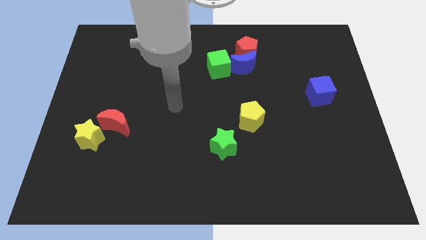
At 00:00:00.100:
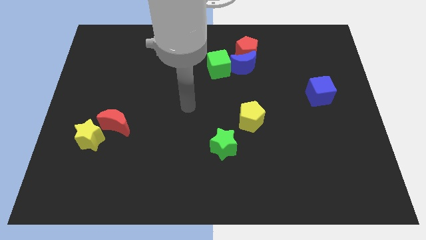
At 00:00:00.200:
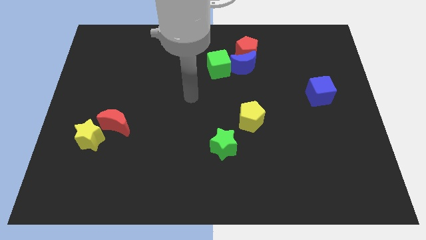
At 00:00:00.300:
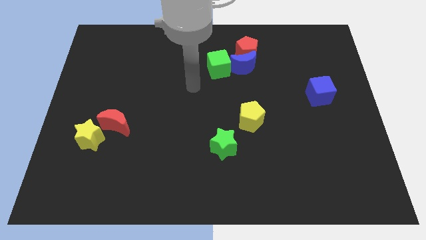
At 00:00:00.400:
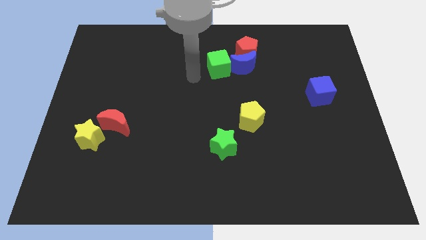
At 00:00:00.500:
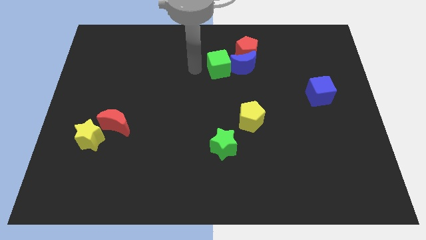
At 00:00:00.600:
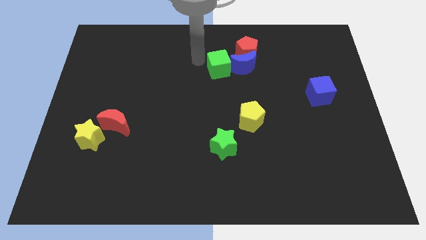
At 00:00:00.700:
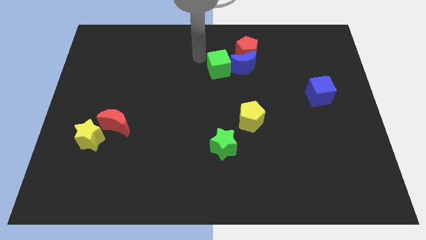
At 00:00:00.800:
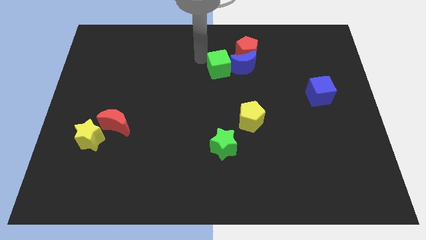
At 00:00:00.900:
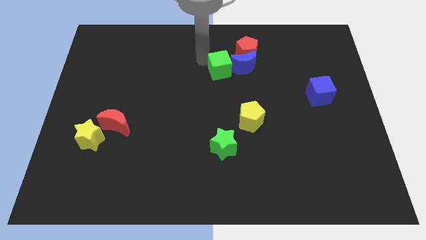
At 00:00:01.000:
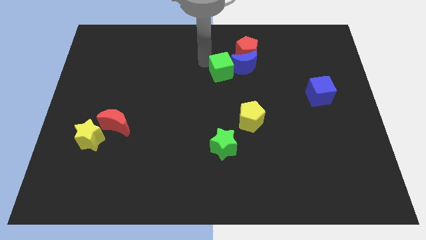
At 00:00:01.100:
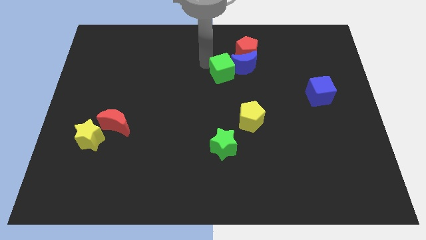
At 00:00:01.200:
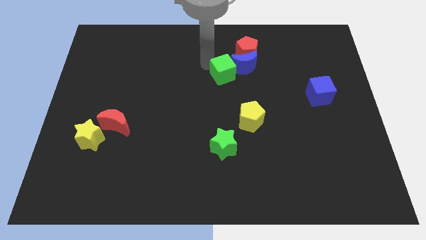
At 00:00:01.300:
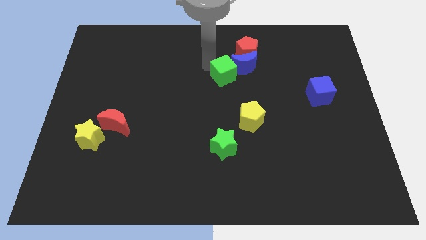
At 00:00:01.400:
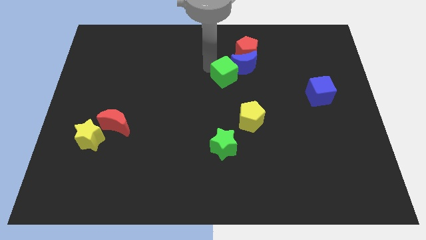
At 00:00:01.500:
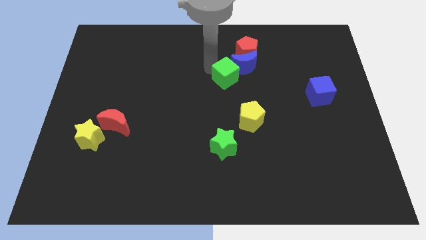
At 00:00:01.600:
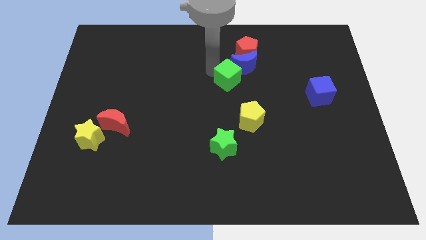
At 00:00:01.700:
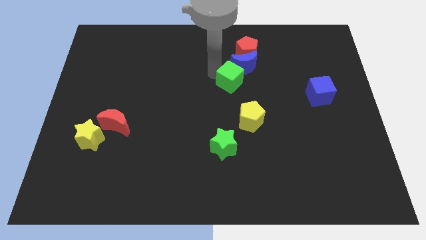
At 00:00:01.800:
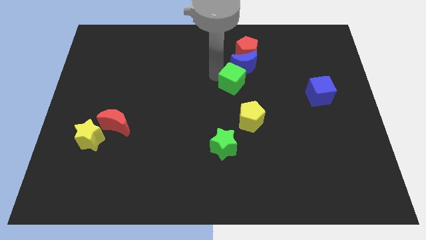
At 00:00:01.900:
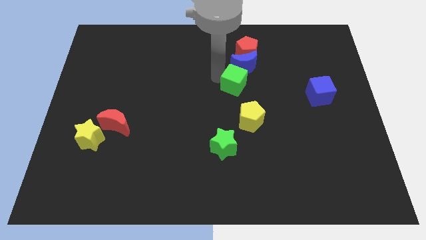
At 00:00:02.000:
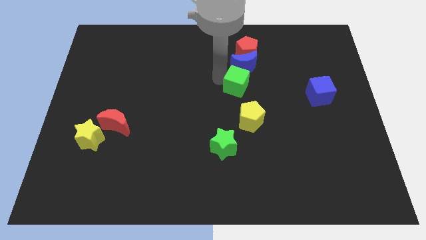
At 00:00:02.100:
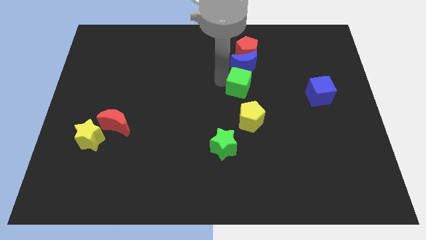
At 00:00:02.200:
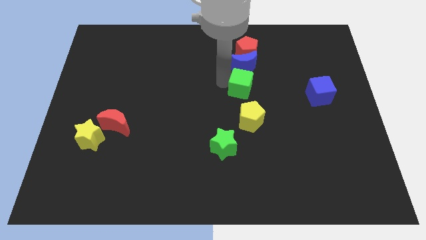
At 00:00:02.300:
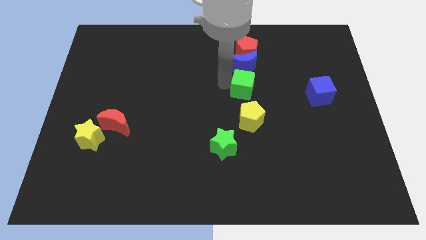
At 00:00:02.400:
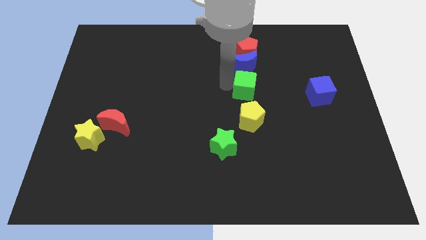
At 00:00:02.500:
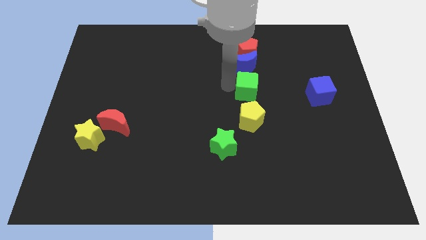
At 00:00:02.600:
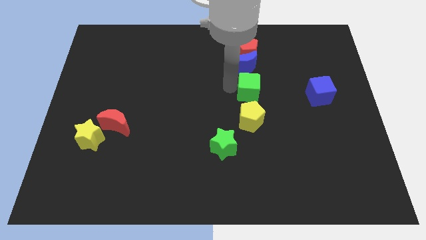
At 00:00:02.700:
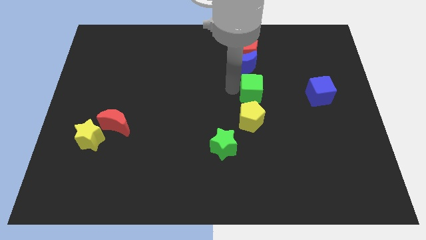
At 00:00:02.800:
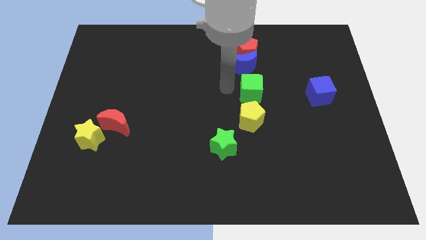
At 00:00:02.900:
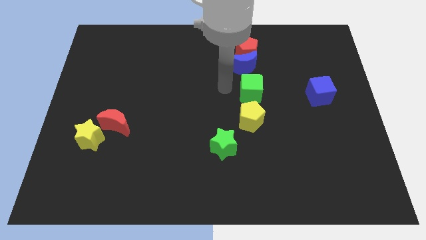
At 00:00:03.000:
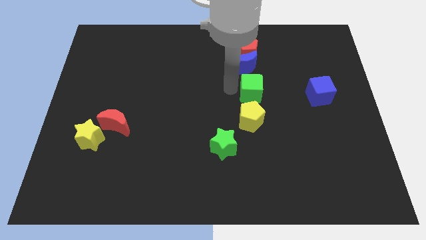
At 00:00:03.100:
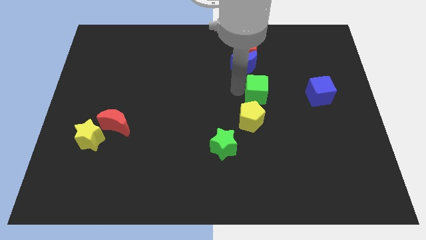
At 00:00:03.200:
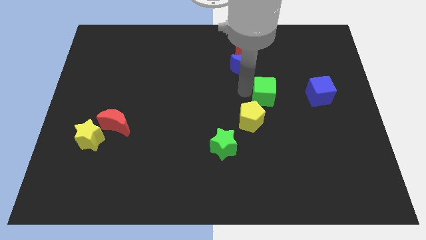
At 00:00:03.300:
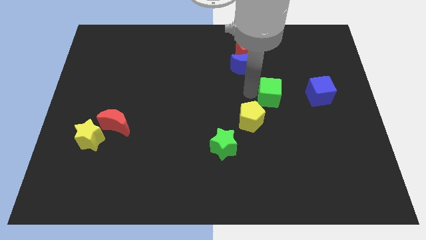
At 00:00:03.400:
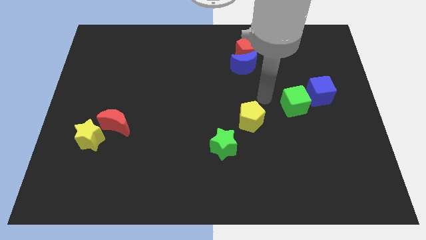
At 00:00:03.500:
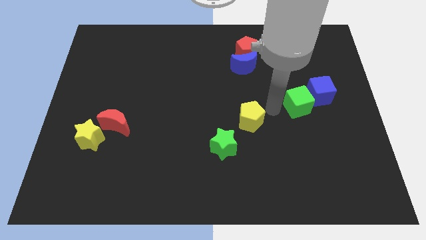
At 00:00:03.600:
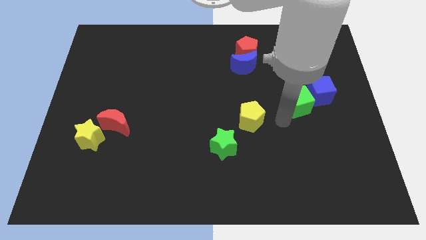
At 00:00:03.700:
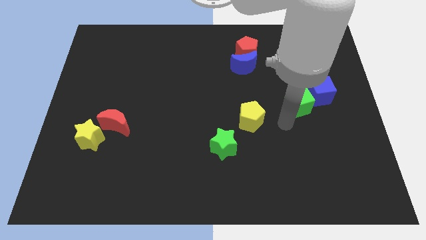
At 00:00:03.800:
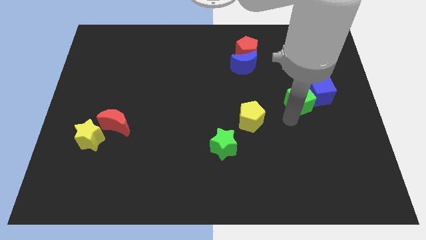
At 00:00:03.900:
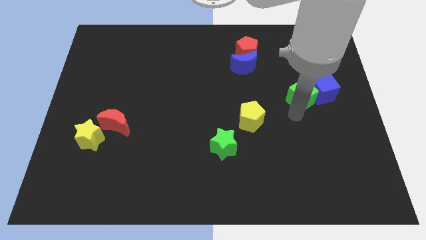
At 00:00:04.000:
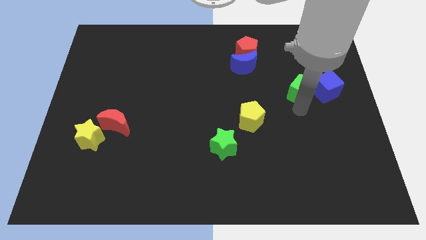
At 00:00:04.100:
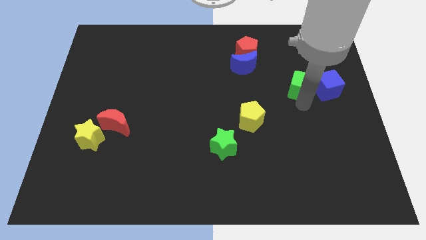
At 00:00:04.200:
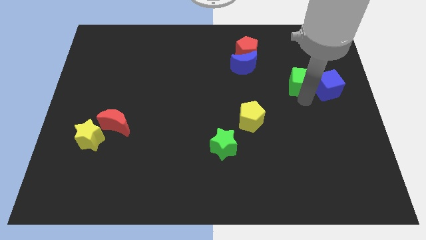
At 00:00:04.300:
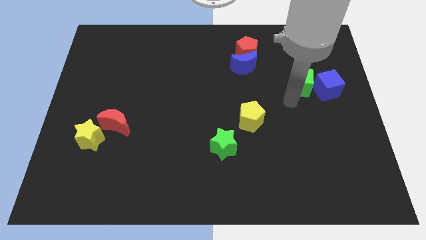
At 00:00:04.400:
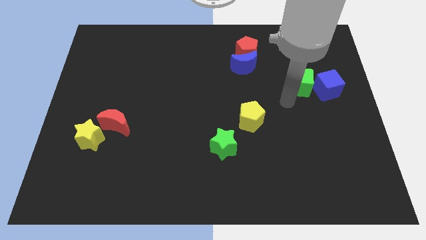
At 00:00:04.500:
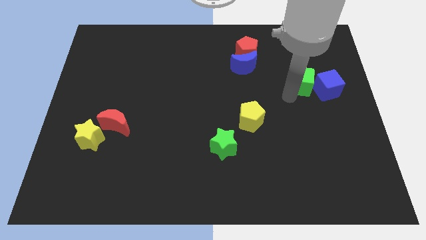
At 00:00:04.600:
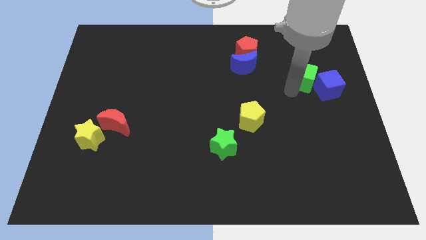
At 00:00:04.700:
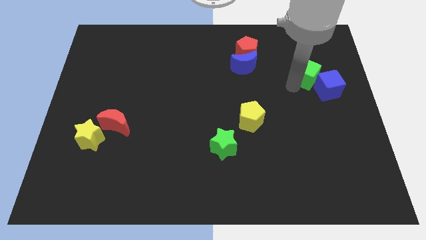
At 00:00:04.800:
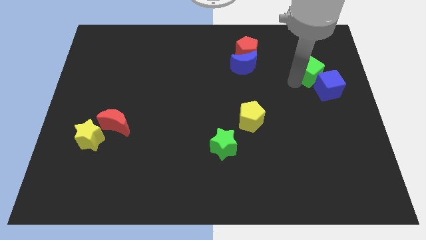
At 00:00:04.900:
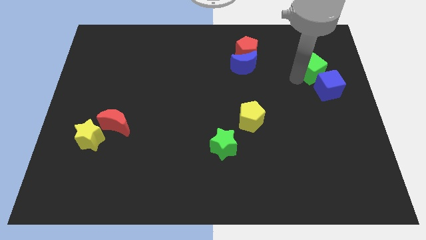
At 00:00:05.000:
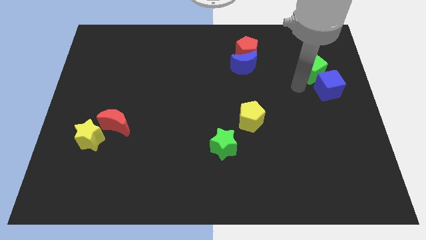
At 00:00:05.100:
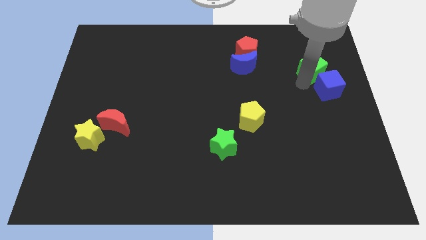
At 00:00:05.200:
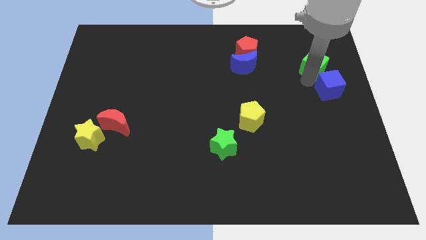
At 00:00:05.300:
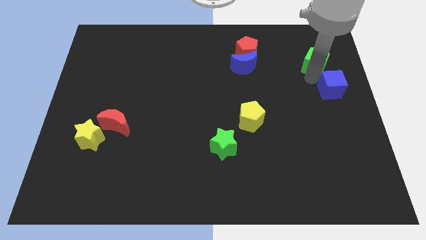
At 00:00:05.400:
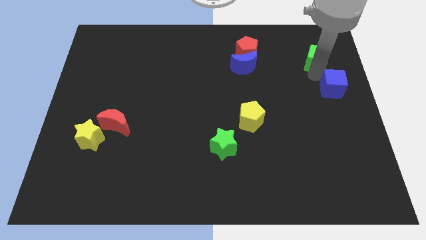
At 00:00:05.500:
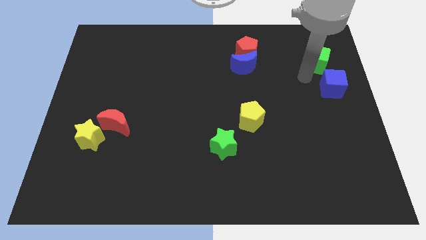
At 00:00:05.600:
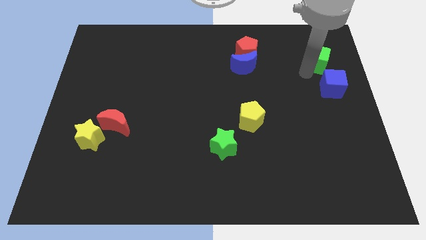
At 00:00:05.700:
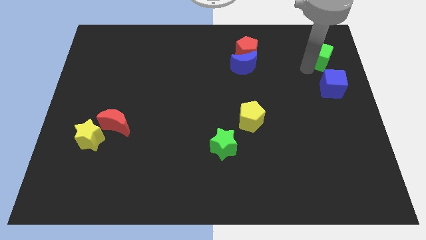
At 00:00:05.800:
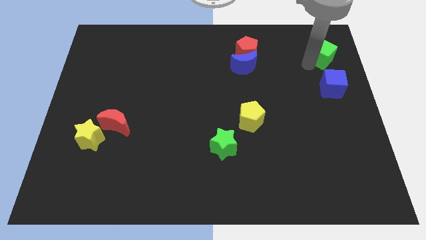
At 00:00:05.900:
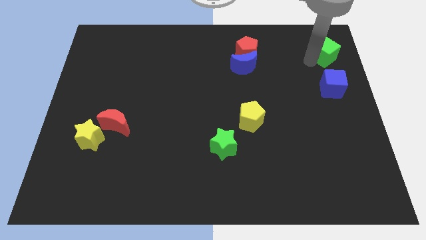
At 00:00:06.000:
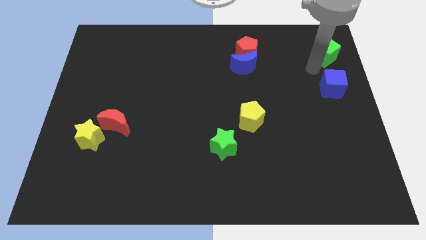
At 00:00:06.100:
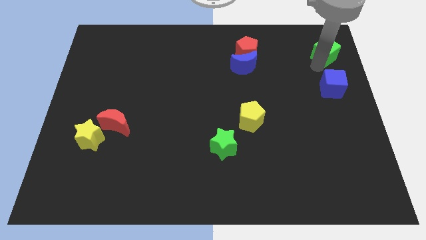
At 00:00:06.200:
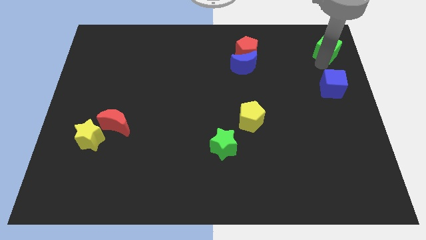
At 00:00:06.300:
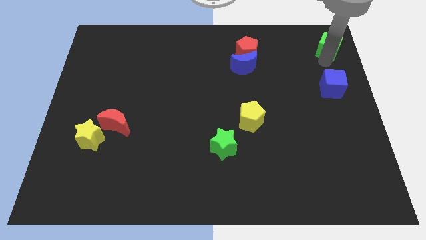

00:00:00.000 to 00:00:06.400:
move the green cube to the upper right corner

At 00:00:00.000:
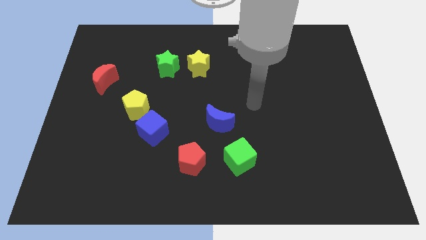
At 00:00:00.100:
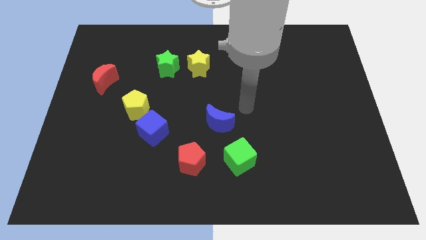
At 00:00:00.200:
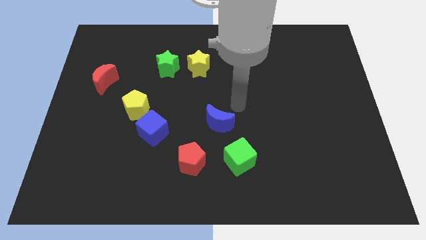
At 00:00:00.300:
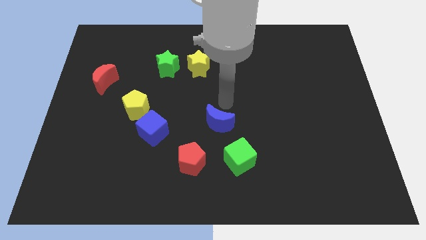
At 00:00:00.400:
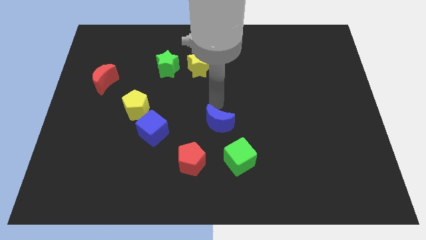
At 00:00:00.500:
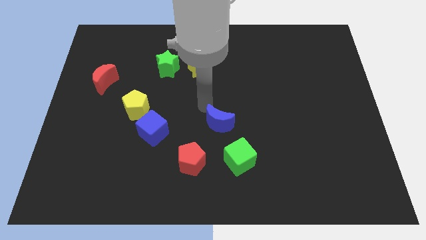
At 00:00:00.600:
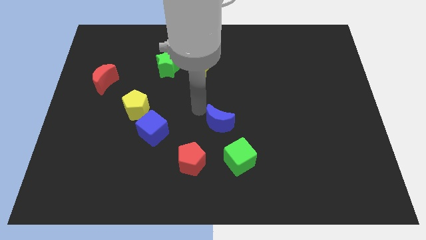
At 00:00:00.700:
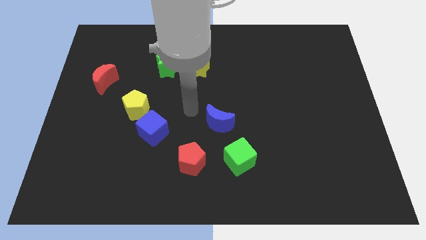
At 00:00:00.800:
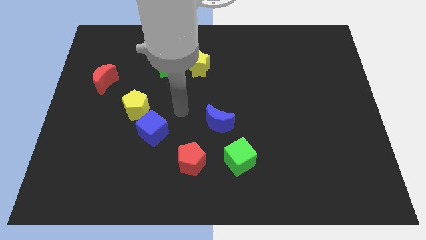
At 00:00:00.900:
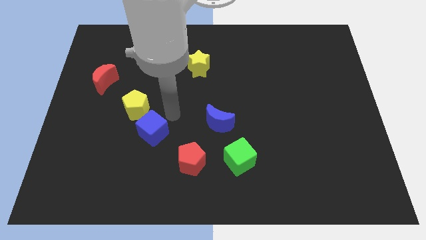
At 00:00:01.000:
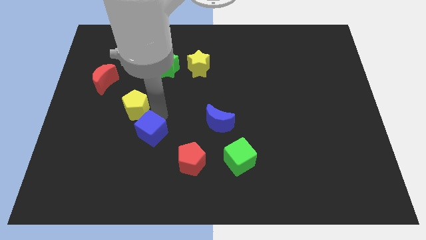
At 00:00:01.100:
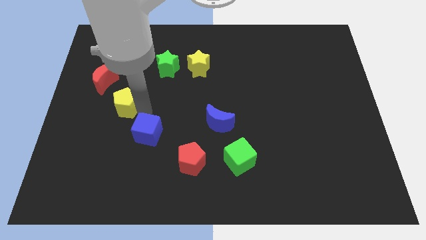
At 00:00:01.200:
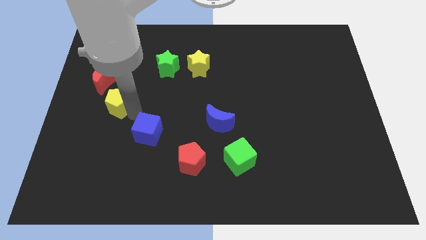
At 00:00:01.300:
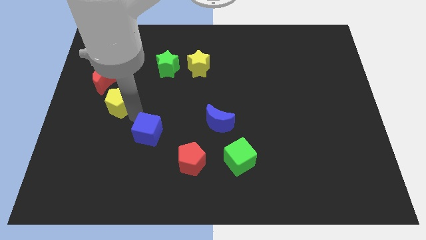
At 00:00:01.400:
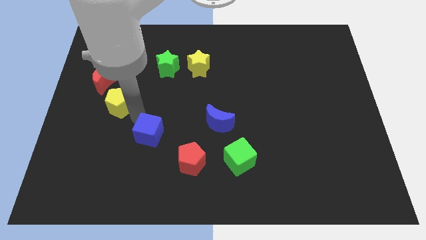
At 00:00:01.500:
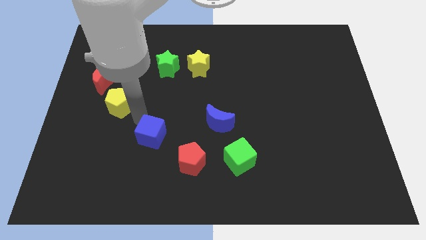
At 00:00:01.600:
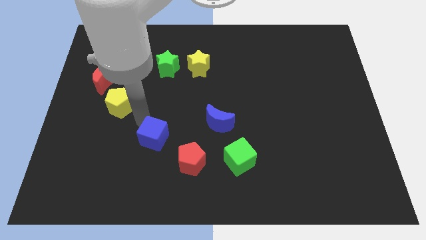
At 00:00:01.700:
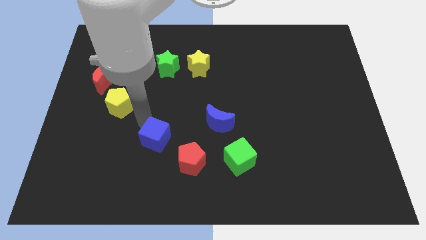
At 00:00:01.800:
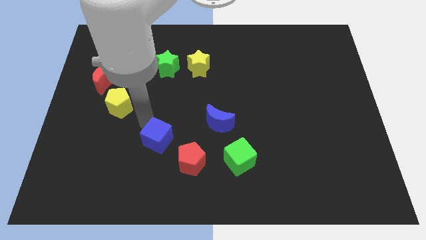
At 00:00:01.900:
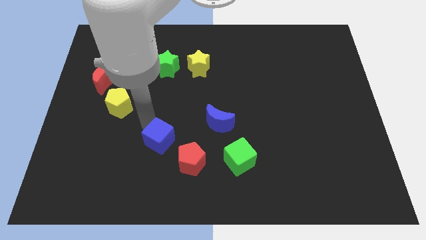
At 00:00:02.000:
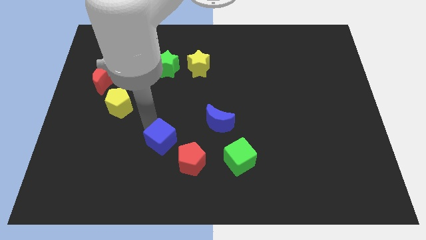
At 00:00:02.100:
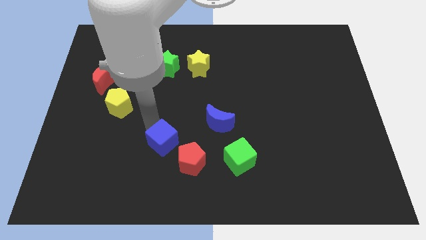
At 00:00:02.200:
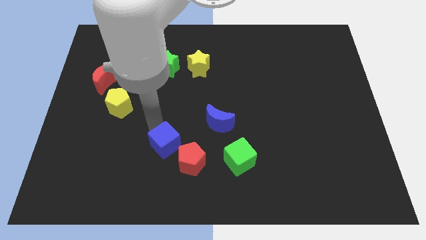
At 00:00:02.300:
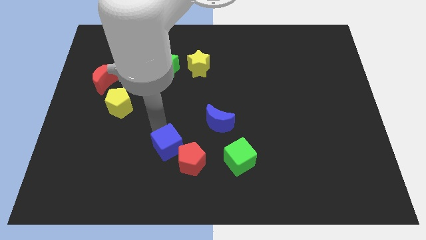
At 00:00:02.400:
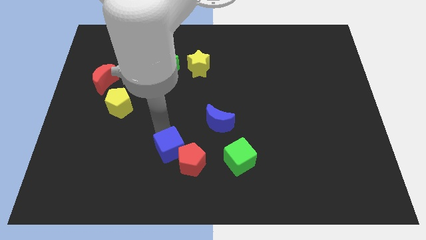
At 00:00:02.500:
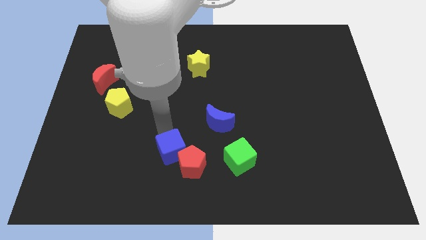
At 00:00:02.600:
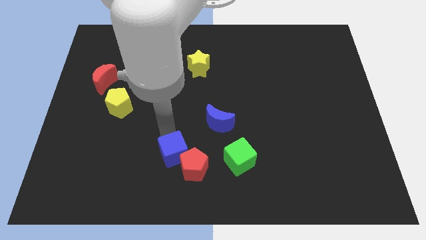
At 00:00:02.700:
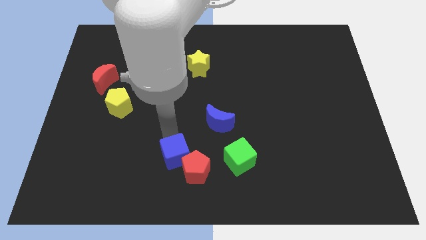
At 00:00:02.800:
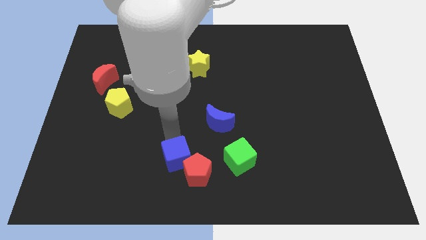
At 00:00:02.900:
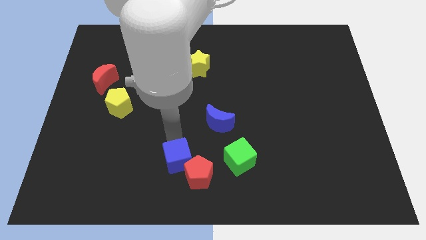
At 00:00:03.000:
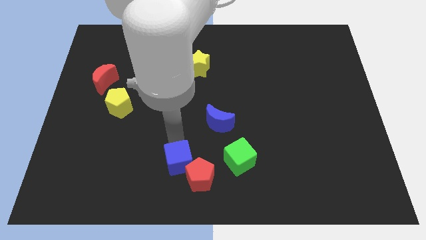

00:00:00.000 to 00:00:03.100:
push the blue cube to the bottom
